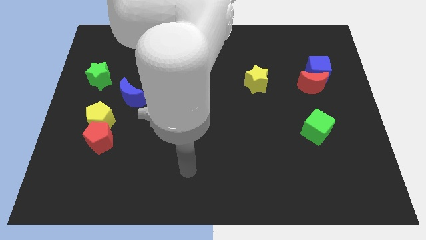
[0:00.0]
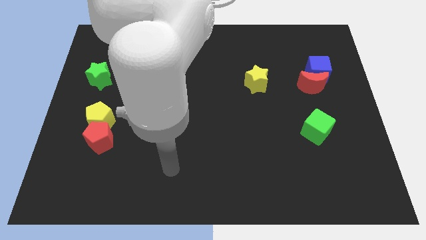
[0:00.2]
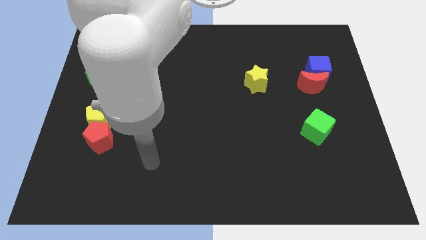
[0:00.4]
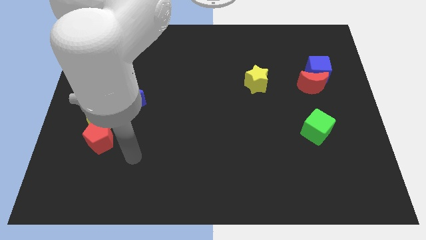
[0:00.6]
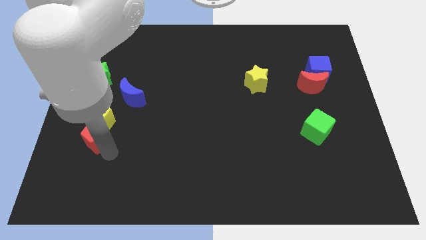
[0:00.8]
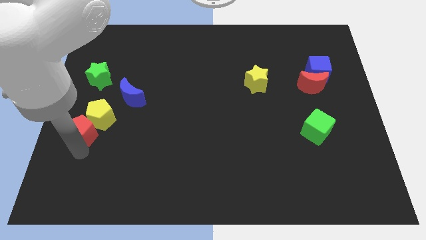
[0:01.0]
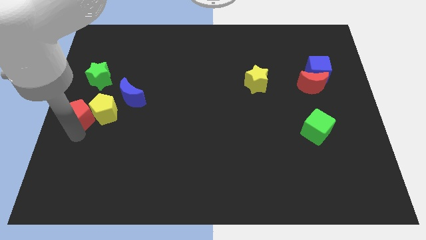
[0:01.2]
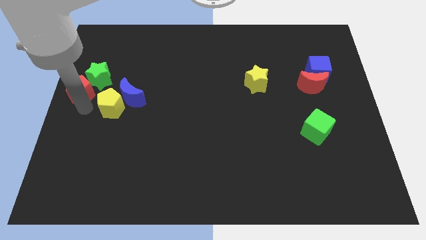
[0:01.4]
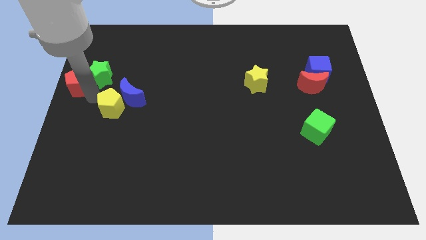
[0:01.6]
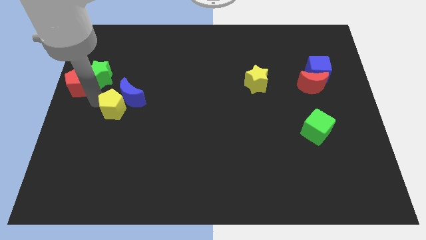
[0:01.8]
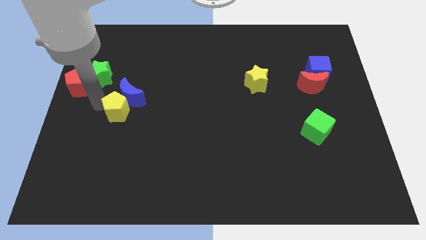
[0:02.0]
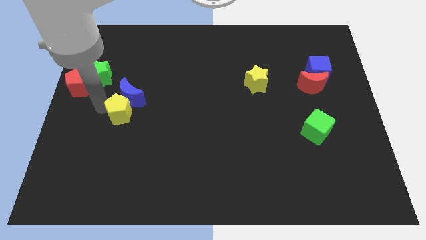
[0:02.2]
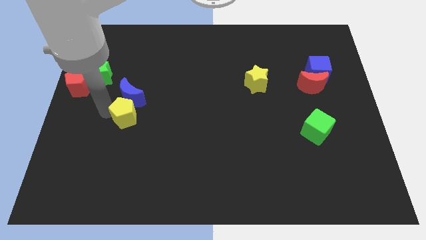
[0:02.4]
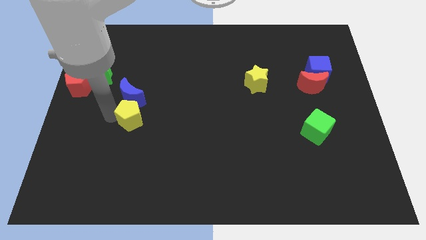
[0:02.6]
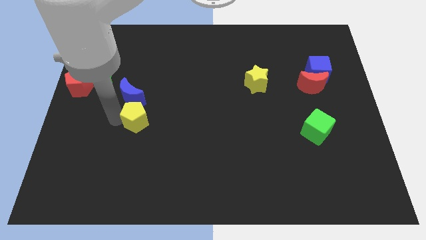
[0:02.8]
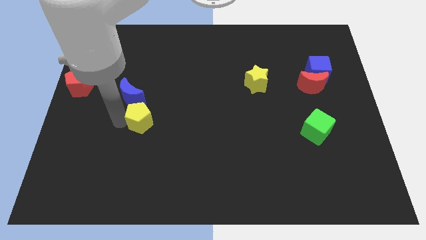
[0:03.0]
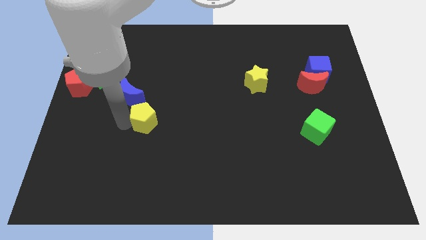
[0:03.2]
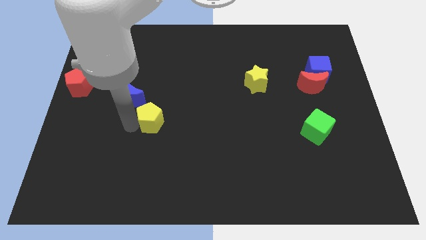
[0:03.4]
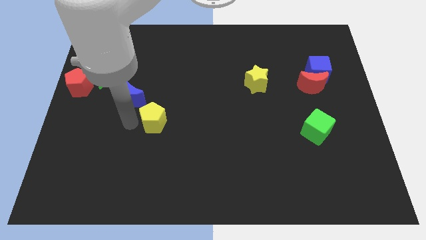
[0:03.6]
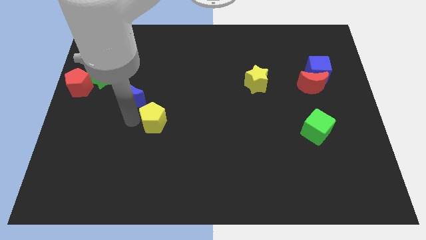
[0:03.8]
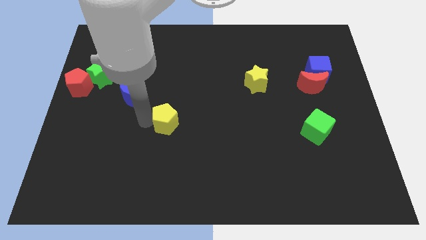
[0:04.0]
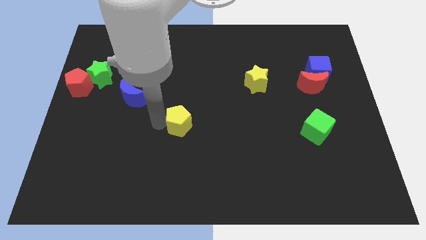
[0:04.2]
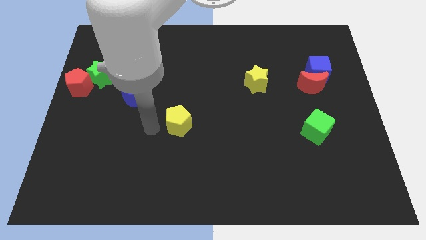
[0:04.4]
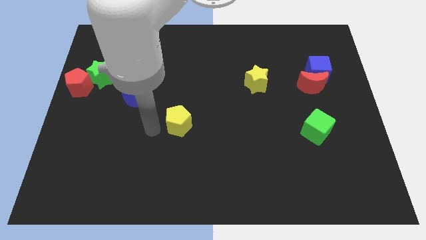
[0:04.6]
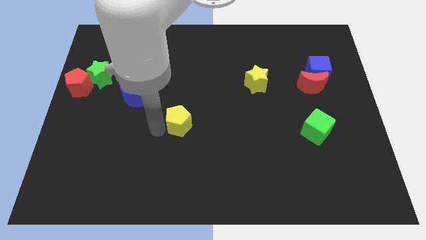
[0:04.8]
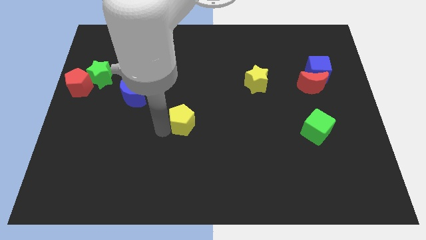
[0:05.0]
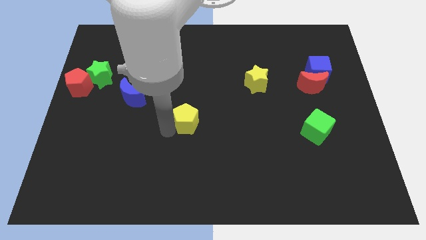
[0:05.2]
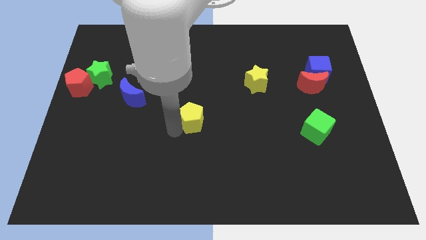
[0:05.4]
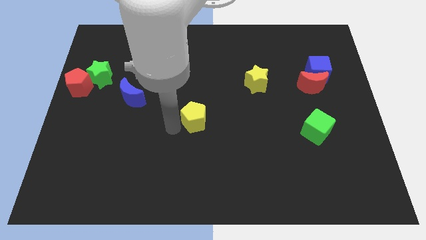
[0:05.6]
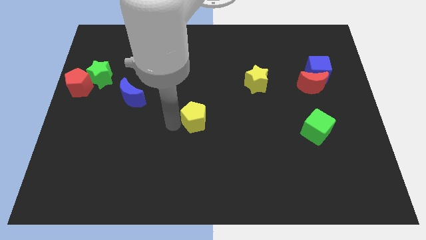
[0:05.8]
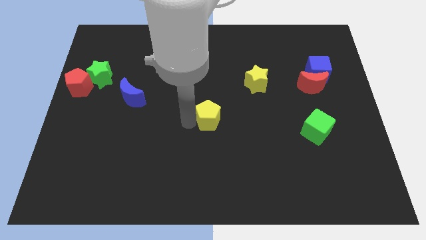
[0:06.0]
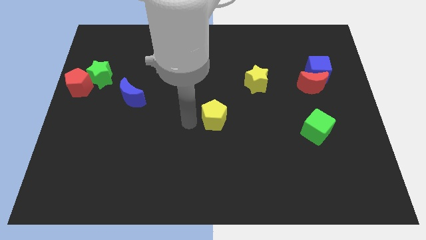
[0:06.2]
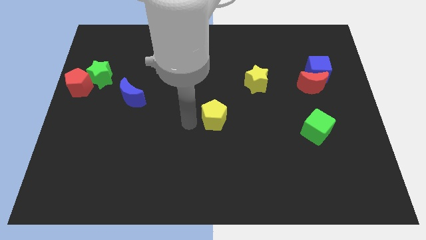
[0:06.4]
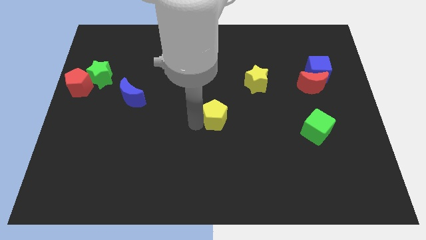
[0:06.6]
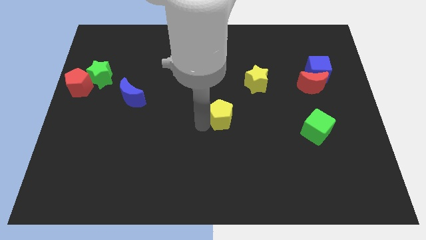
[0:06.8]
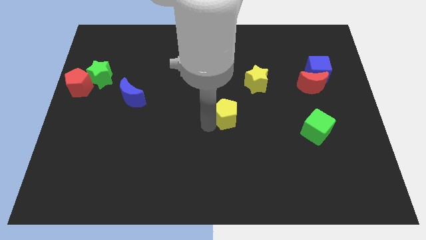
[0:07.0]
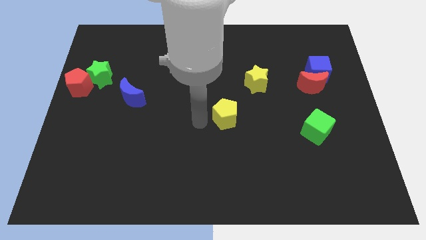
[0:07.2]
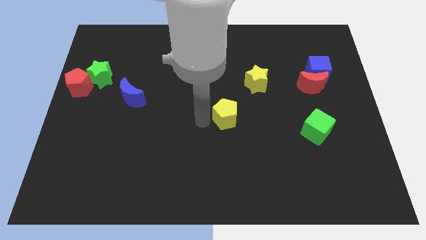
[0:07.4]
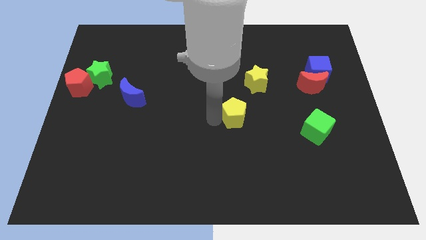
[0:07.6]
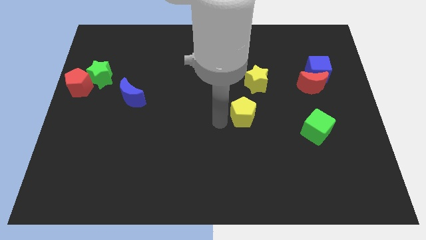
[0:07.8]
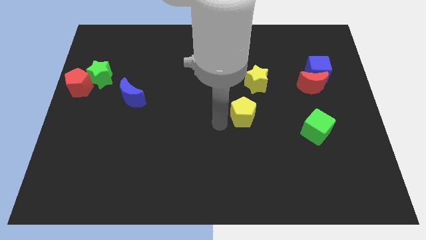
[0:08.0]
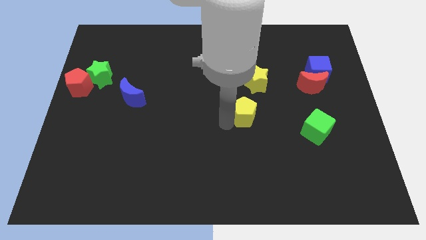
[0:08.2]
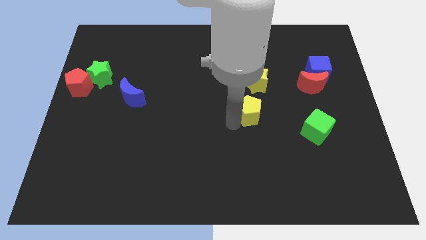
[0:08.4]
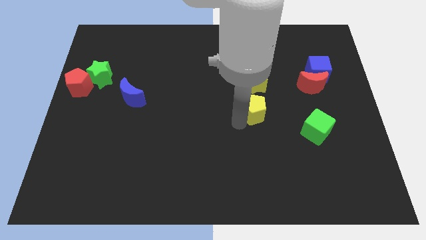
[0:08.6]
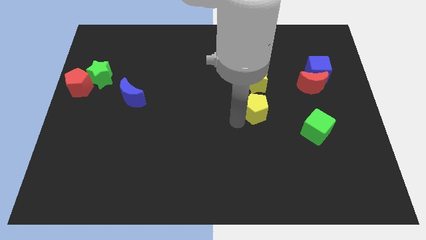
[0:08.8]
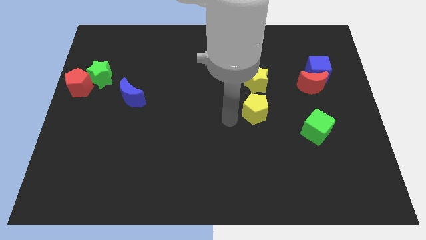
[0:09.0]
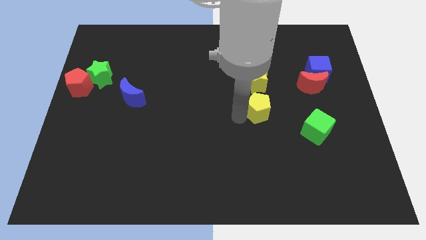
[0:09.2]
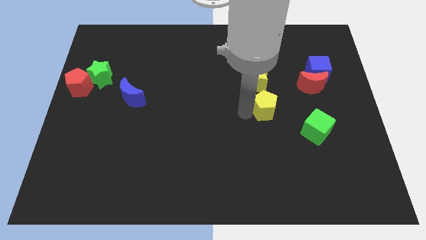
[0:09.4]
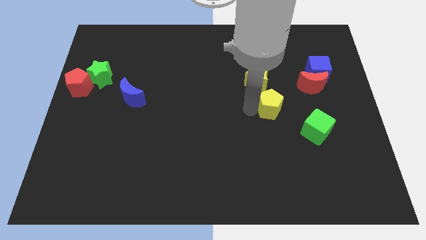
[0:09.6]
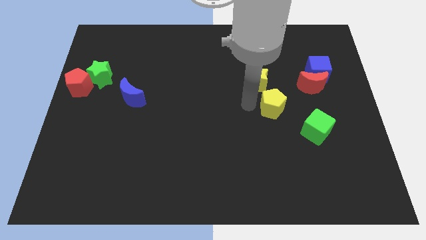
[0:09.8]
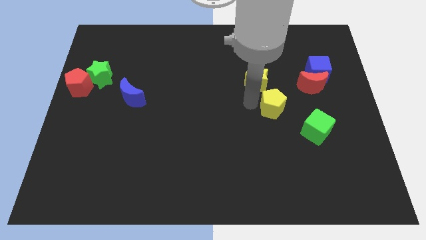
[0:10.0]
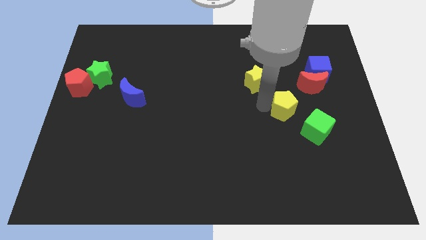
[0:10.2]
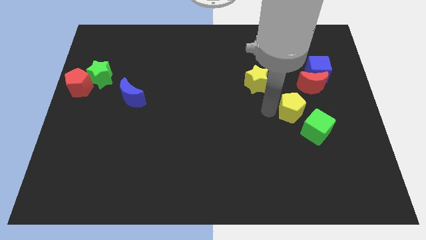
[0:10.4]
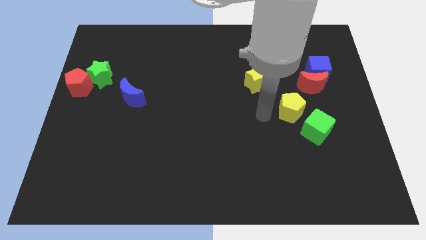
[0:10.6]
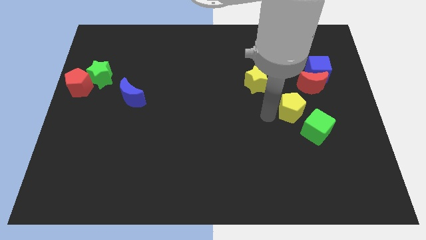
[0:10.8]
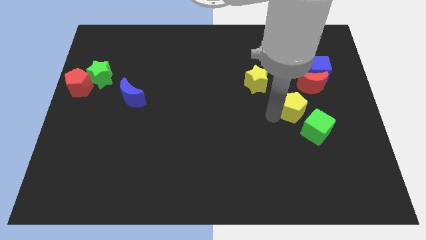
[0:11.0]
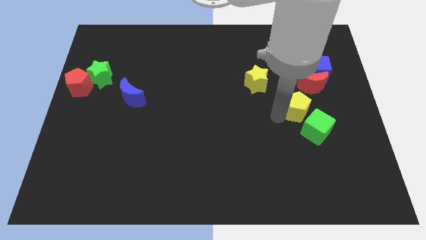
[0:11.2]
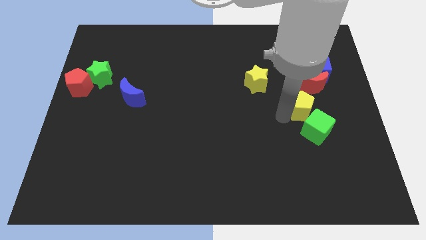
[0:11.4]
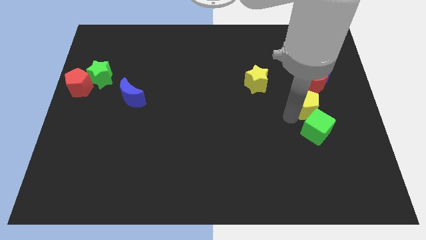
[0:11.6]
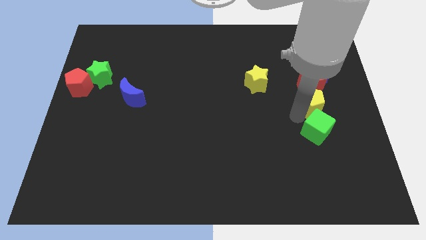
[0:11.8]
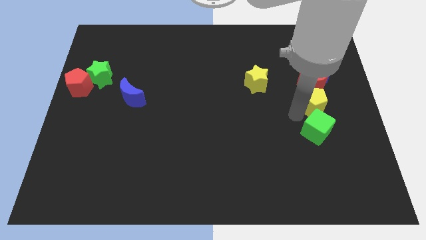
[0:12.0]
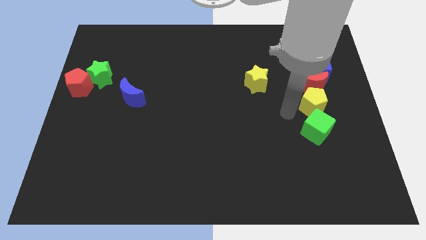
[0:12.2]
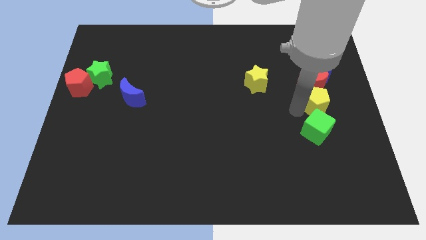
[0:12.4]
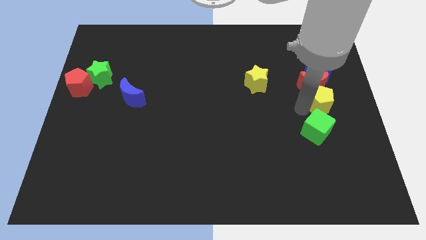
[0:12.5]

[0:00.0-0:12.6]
slide the yellow pentagon to the right side of the board

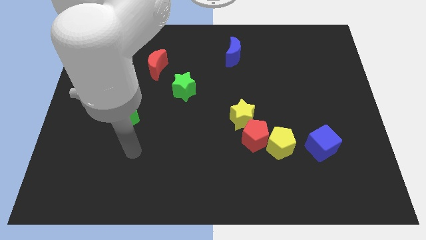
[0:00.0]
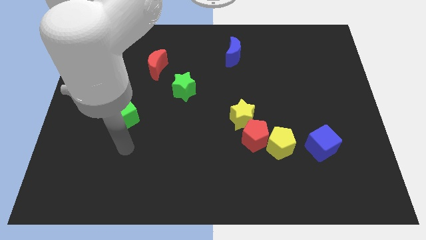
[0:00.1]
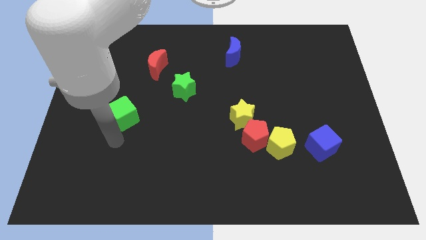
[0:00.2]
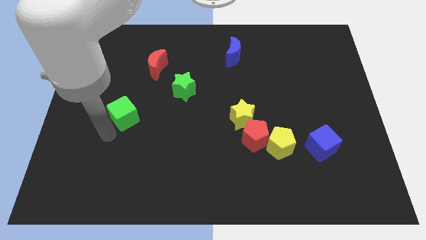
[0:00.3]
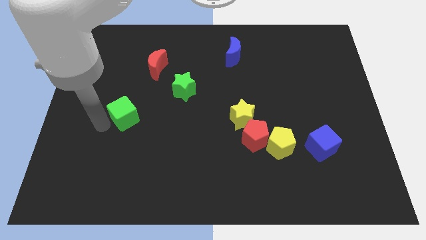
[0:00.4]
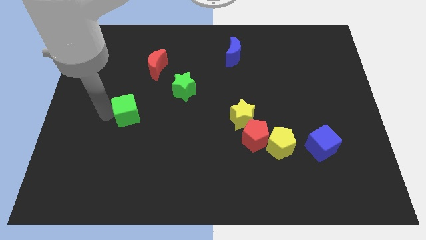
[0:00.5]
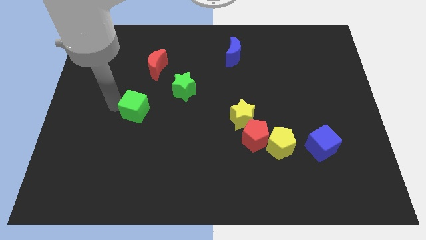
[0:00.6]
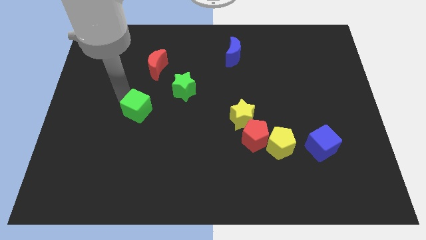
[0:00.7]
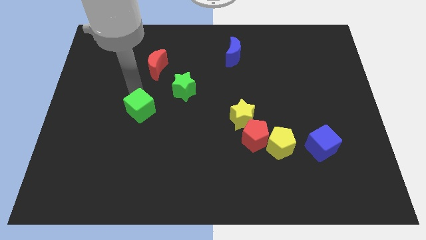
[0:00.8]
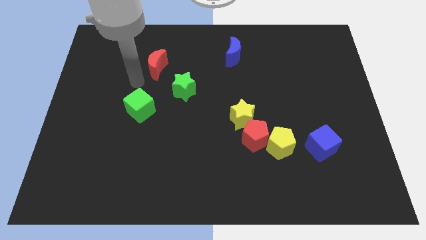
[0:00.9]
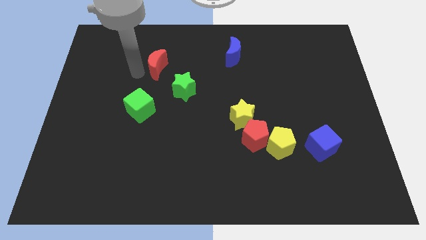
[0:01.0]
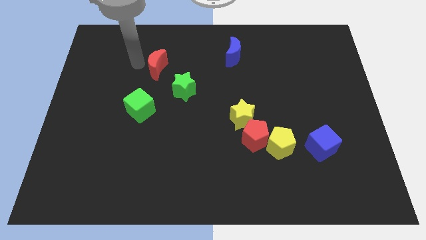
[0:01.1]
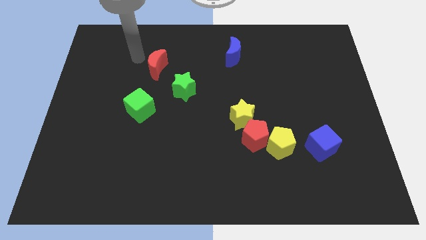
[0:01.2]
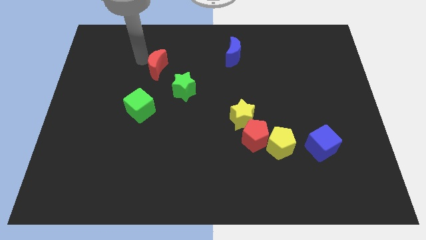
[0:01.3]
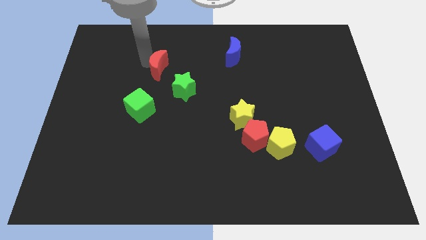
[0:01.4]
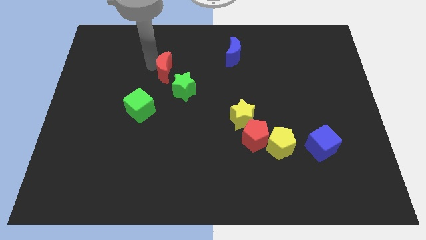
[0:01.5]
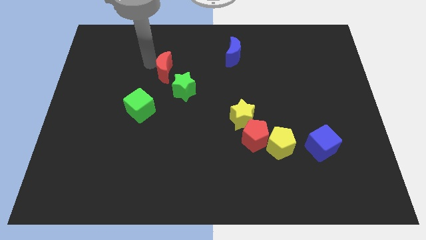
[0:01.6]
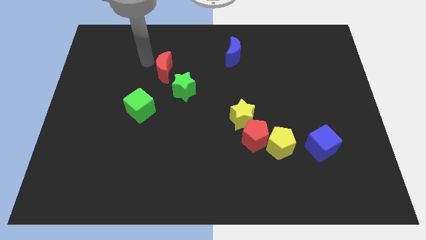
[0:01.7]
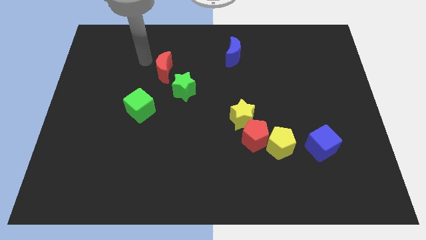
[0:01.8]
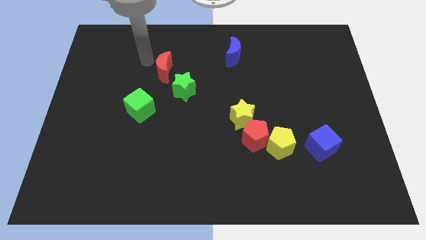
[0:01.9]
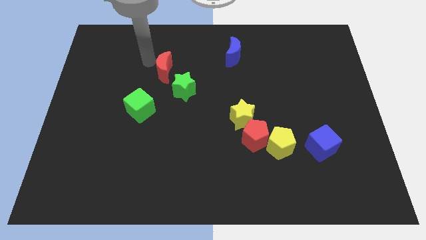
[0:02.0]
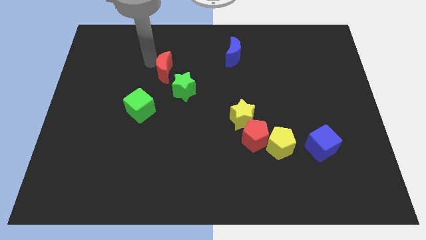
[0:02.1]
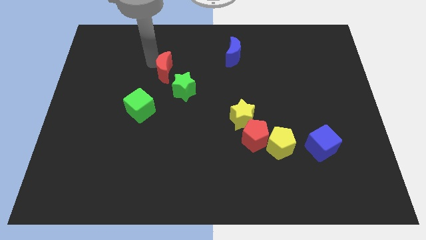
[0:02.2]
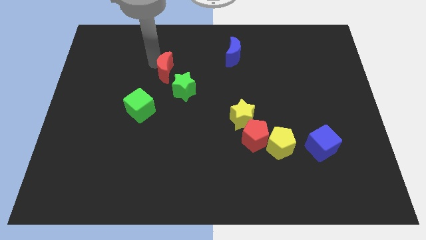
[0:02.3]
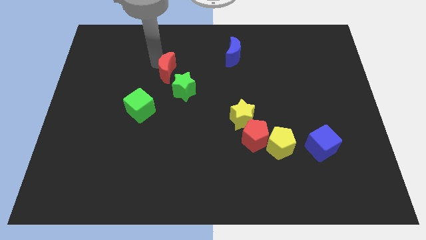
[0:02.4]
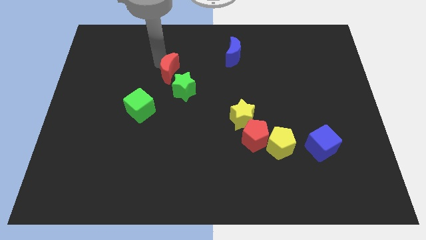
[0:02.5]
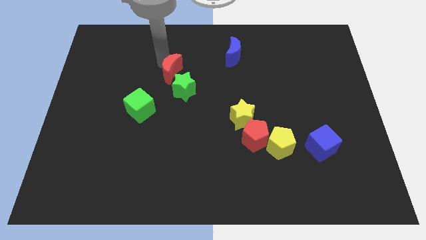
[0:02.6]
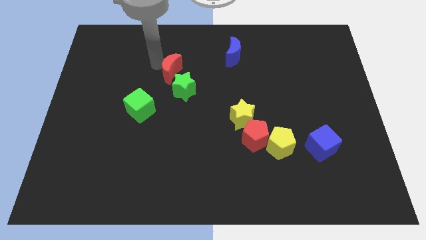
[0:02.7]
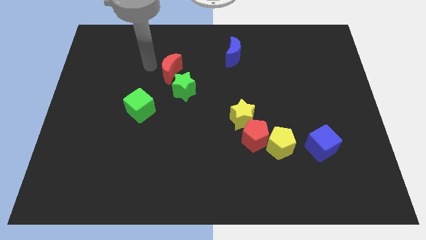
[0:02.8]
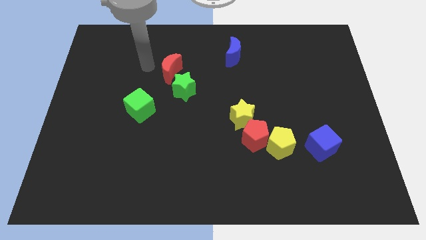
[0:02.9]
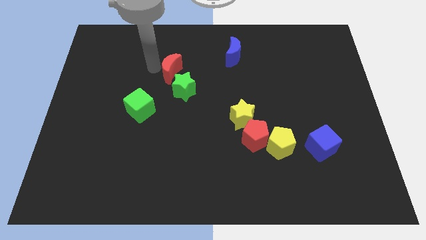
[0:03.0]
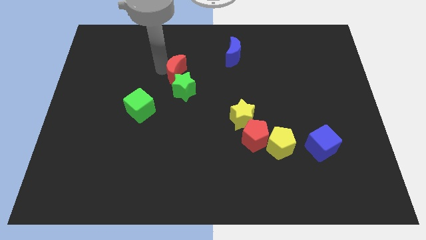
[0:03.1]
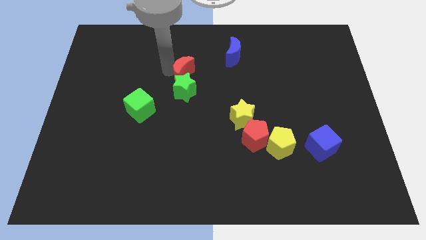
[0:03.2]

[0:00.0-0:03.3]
move the red moon to the center of the board
